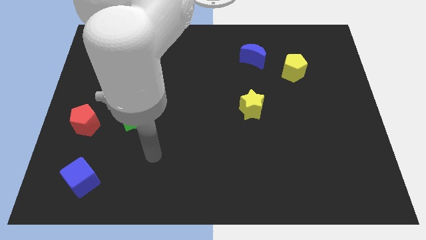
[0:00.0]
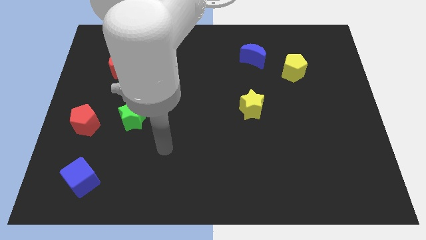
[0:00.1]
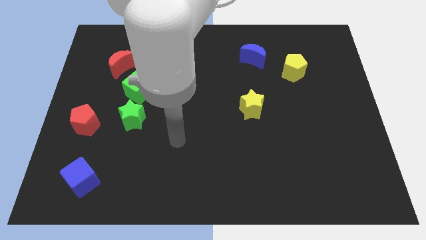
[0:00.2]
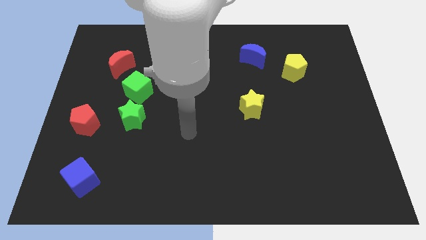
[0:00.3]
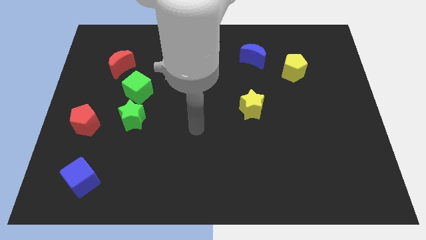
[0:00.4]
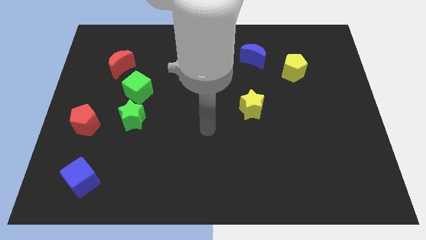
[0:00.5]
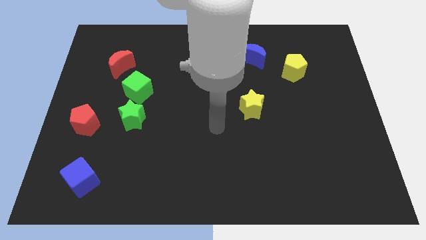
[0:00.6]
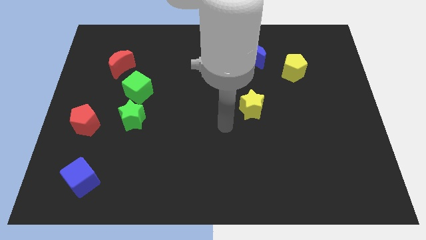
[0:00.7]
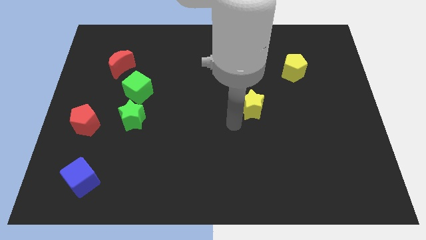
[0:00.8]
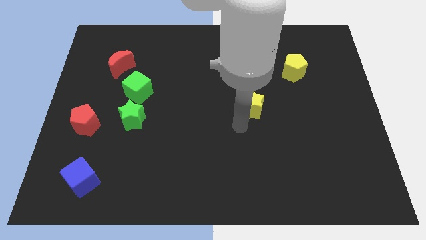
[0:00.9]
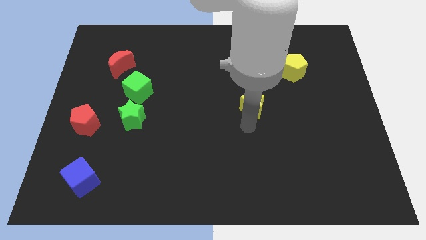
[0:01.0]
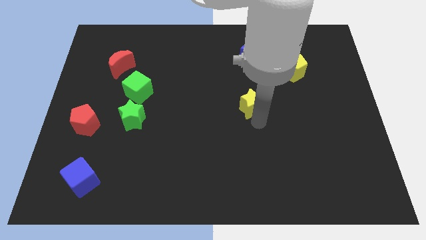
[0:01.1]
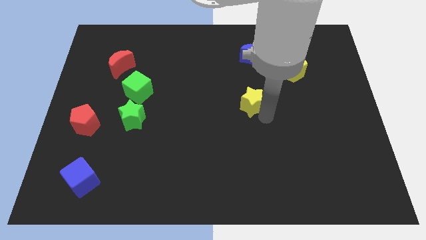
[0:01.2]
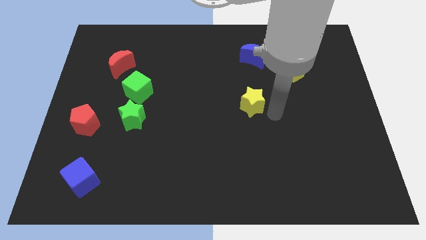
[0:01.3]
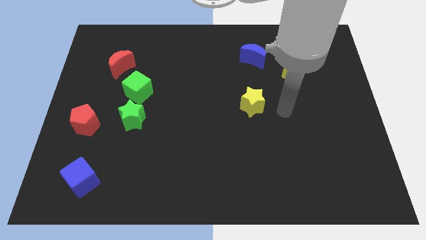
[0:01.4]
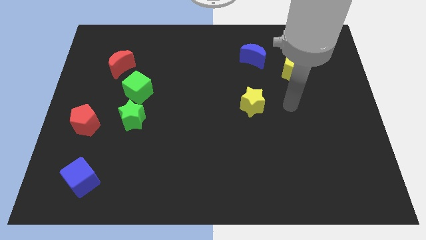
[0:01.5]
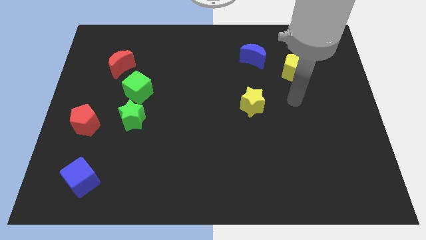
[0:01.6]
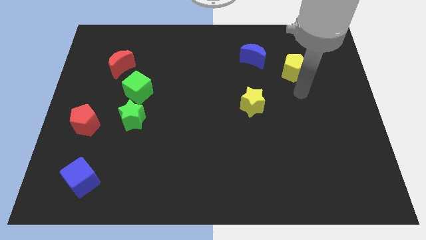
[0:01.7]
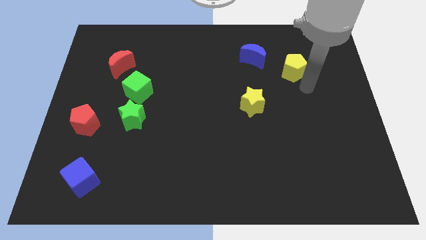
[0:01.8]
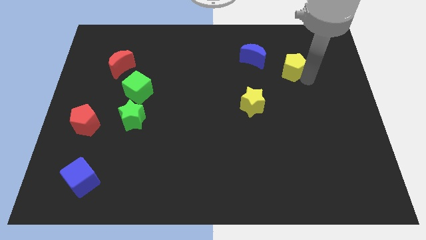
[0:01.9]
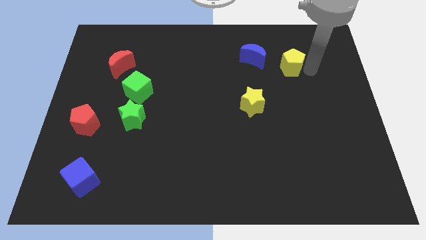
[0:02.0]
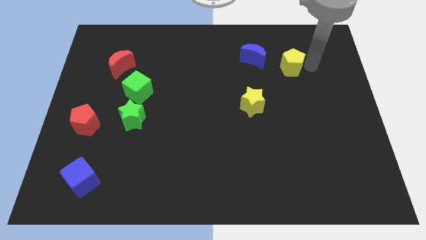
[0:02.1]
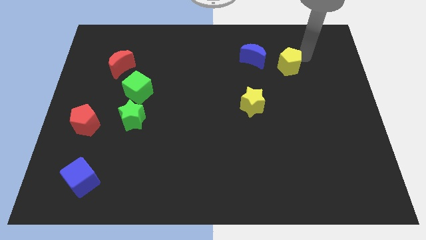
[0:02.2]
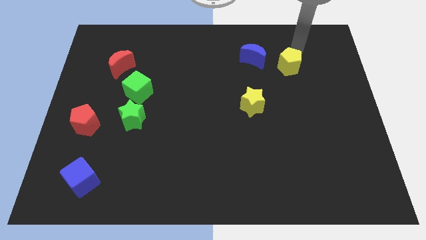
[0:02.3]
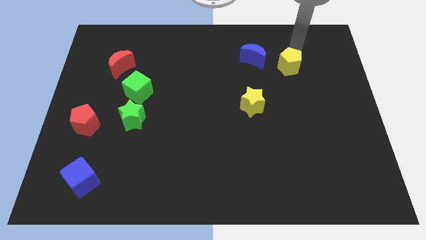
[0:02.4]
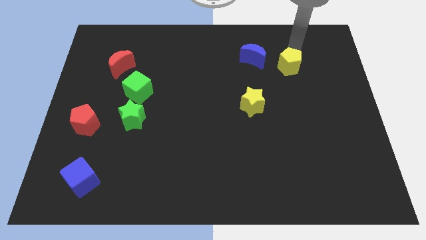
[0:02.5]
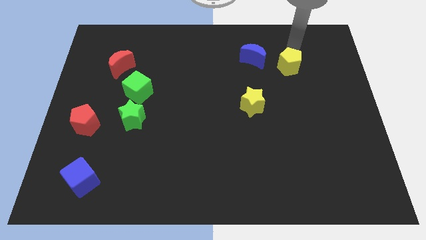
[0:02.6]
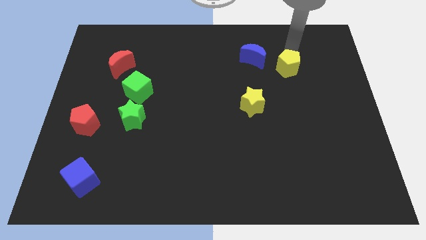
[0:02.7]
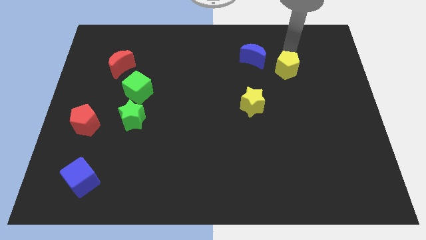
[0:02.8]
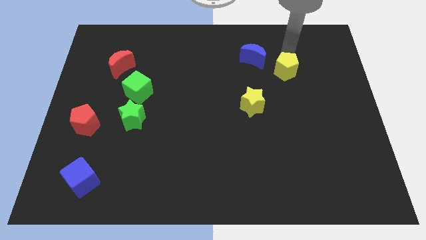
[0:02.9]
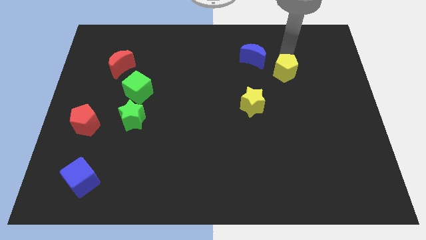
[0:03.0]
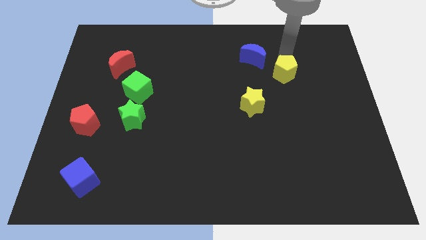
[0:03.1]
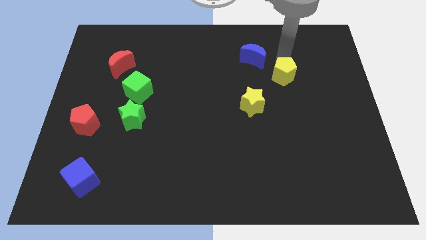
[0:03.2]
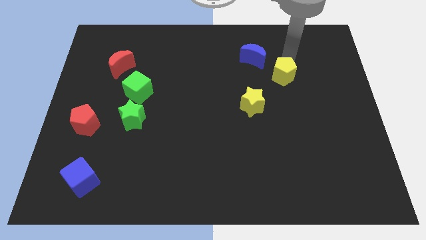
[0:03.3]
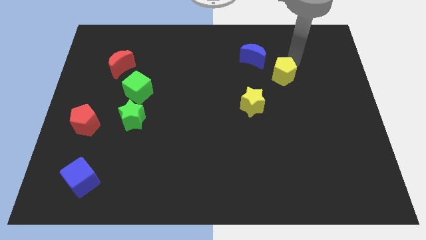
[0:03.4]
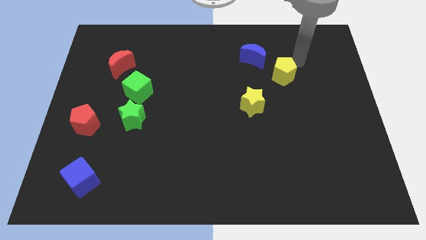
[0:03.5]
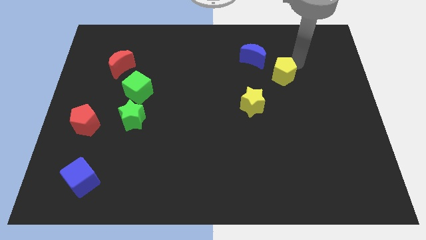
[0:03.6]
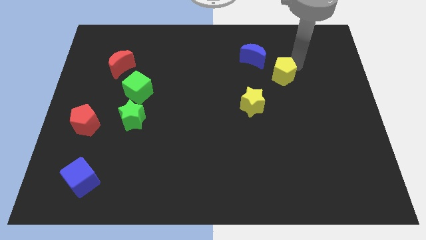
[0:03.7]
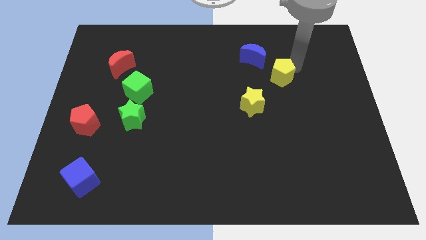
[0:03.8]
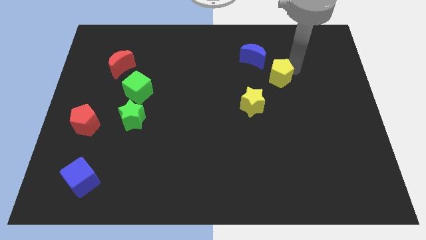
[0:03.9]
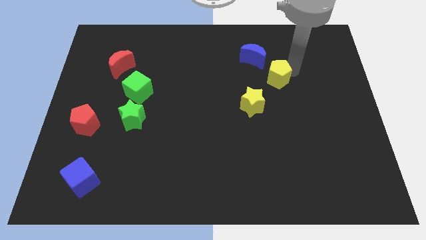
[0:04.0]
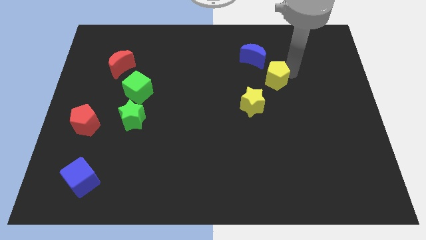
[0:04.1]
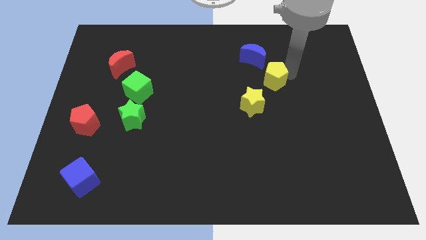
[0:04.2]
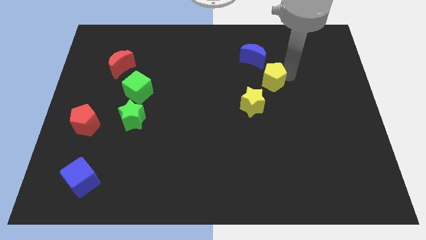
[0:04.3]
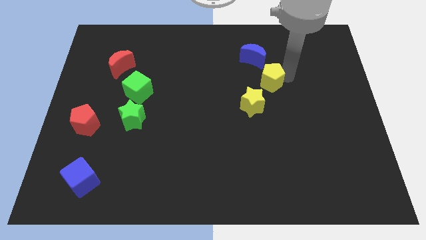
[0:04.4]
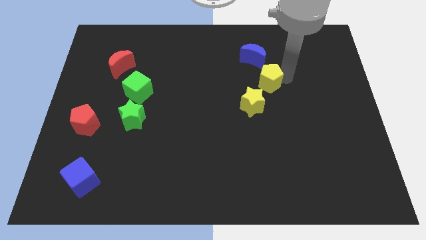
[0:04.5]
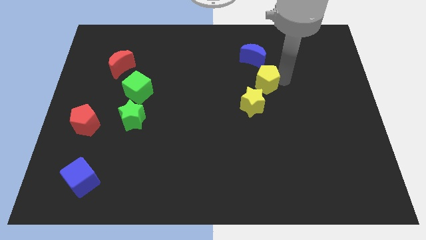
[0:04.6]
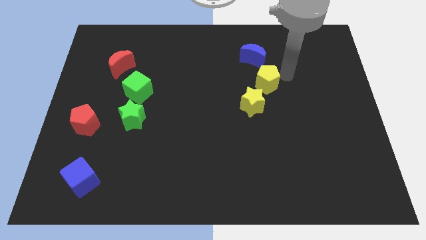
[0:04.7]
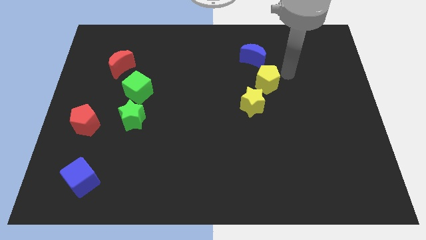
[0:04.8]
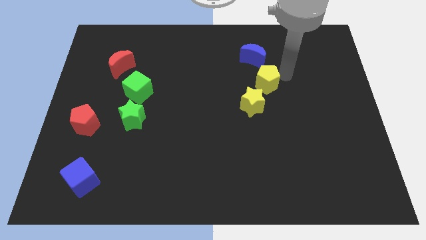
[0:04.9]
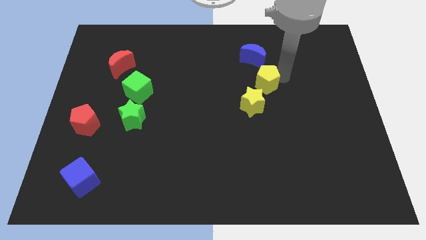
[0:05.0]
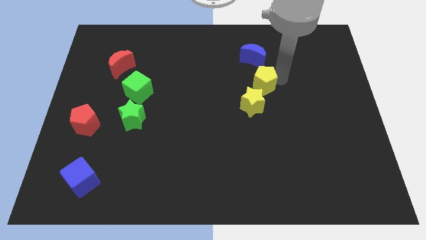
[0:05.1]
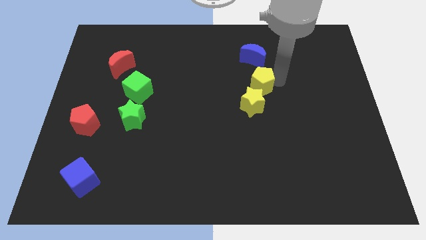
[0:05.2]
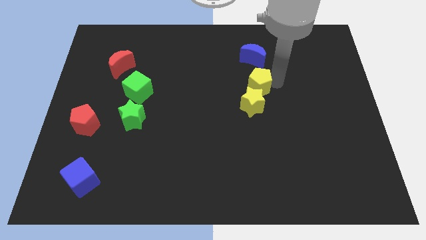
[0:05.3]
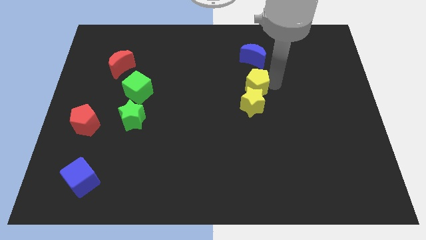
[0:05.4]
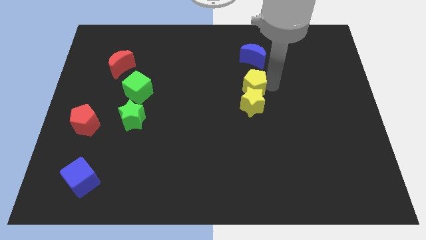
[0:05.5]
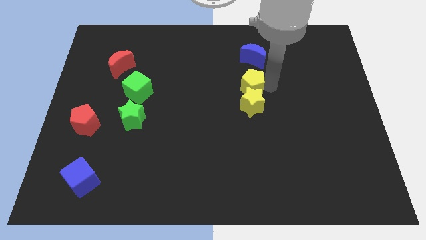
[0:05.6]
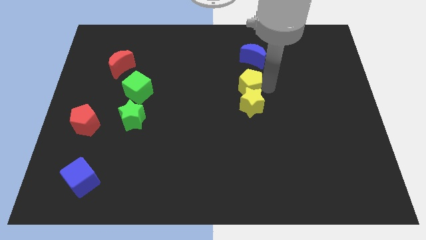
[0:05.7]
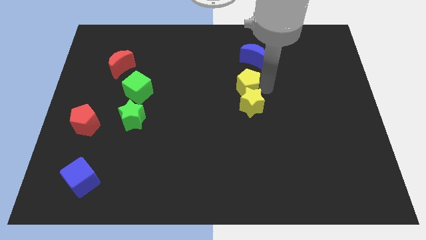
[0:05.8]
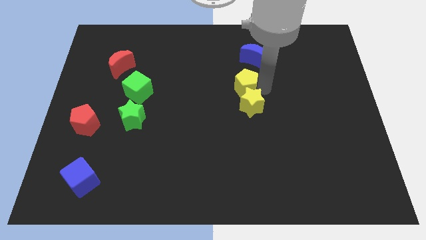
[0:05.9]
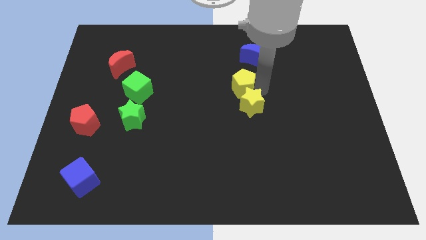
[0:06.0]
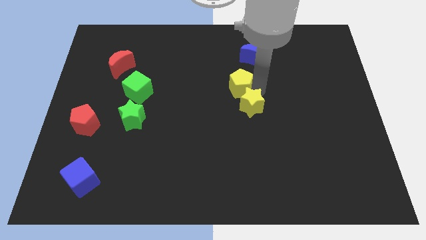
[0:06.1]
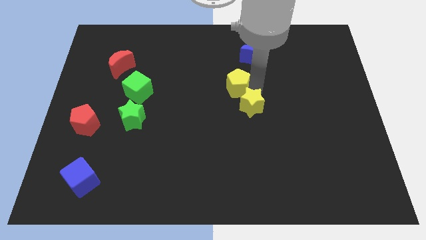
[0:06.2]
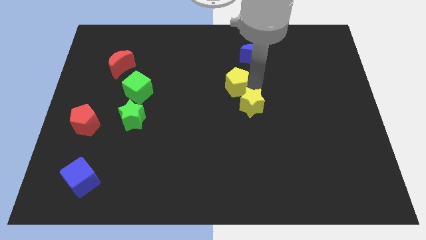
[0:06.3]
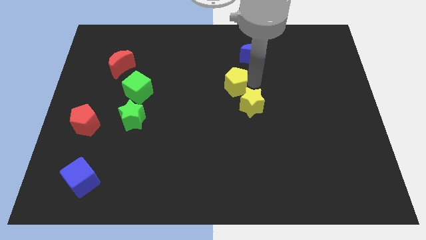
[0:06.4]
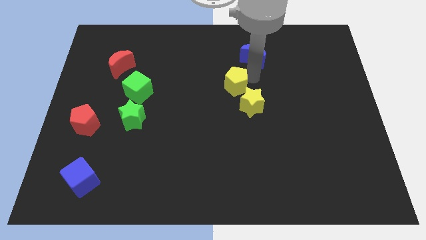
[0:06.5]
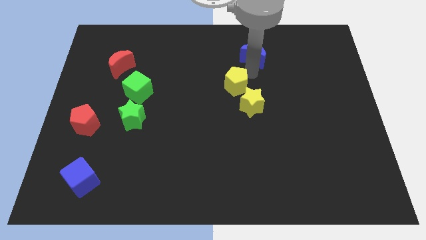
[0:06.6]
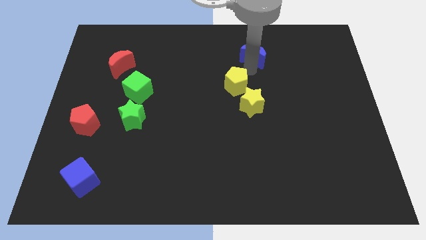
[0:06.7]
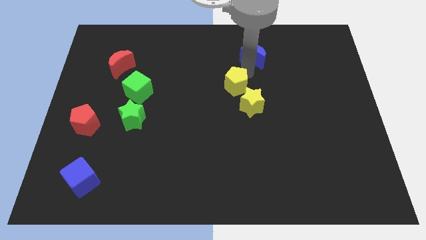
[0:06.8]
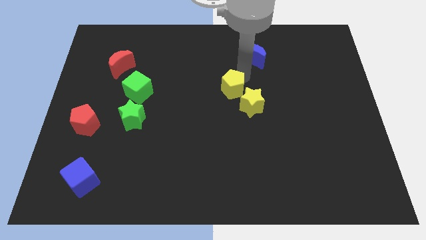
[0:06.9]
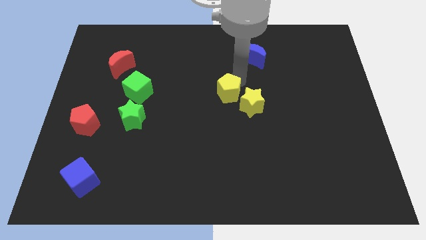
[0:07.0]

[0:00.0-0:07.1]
push the yellow pentagon to the left of the yellow star
